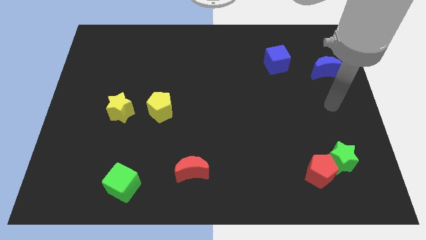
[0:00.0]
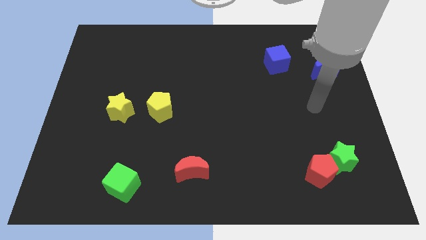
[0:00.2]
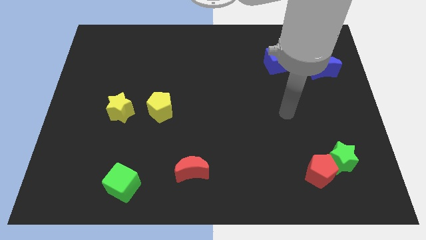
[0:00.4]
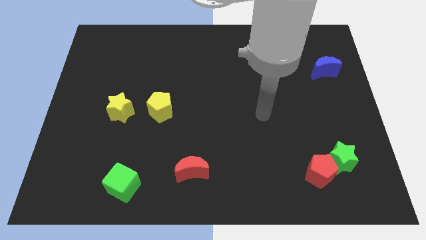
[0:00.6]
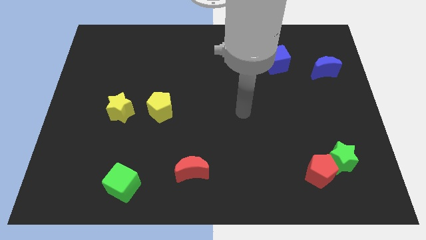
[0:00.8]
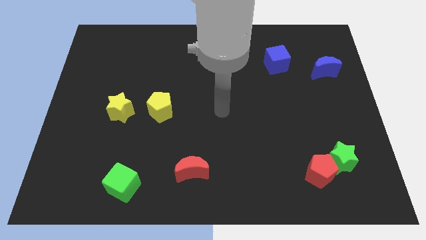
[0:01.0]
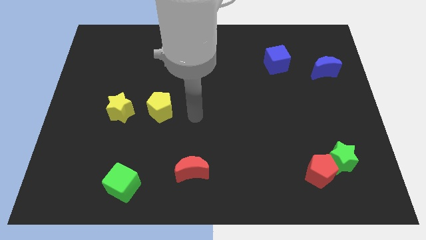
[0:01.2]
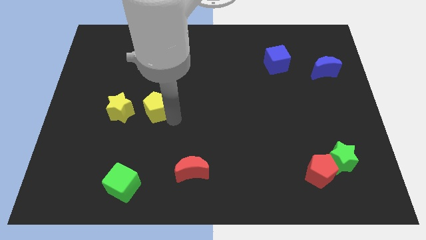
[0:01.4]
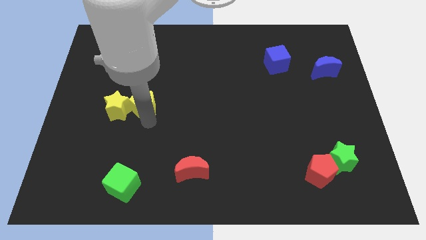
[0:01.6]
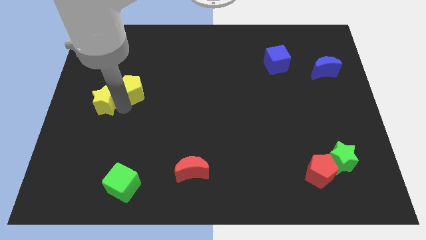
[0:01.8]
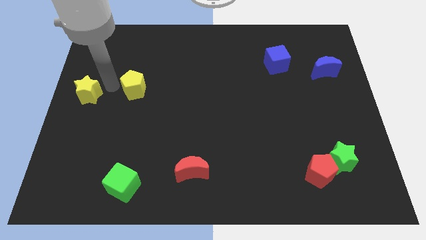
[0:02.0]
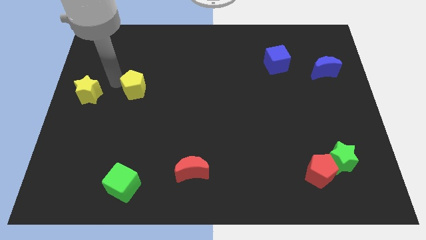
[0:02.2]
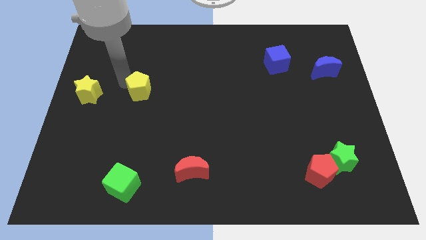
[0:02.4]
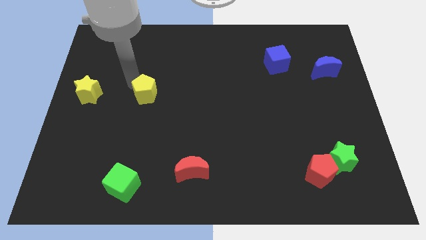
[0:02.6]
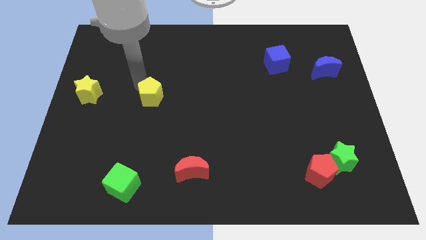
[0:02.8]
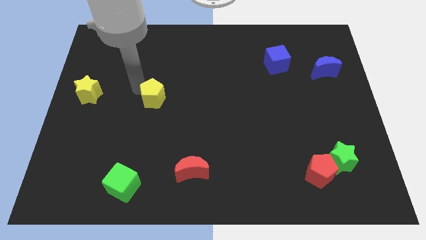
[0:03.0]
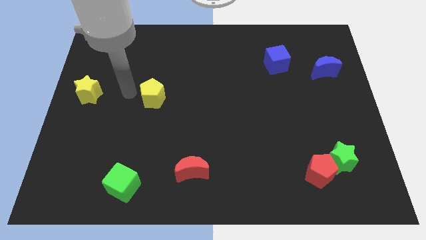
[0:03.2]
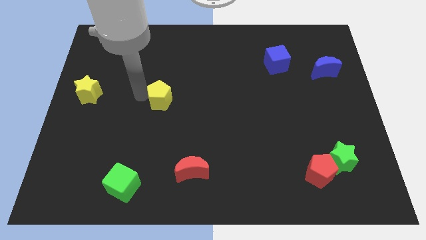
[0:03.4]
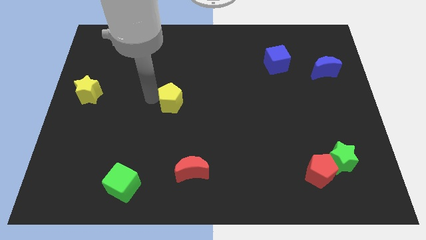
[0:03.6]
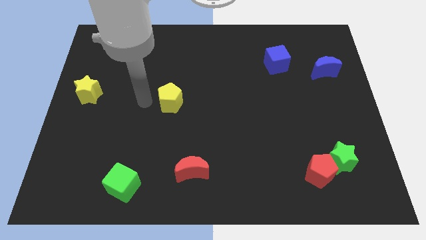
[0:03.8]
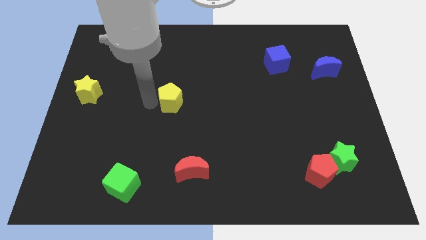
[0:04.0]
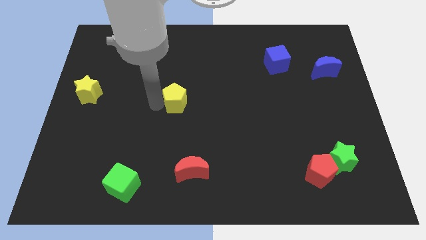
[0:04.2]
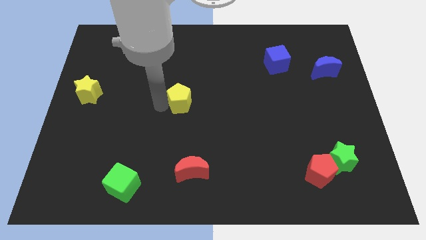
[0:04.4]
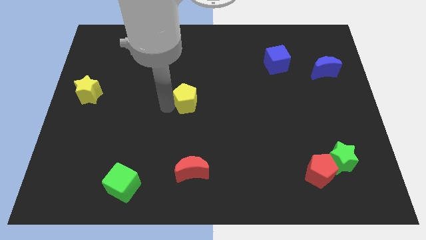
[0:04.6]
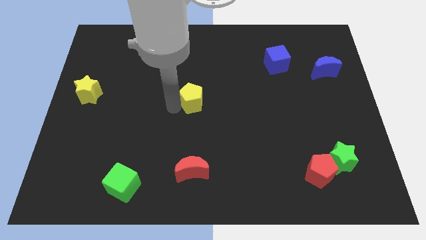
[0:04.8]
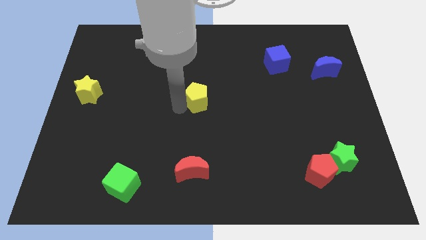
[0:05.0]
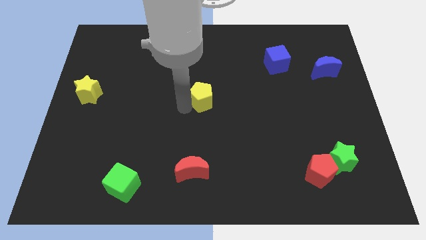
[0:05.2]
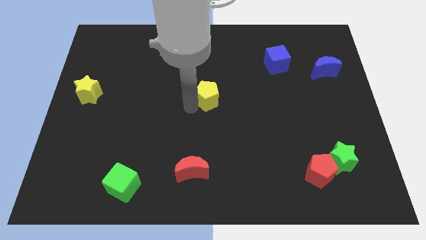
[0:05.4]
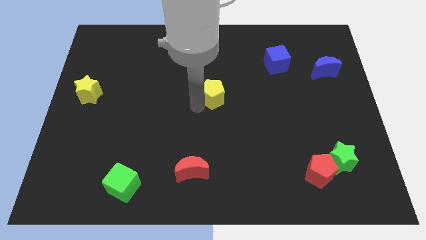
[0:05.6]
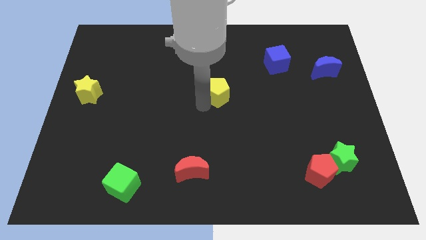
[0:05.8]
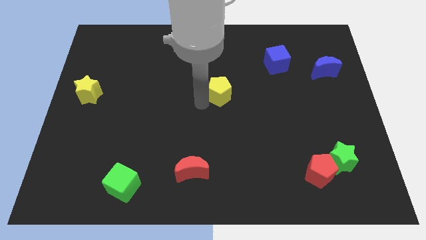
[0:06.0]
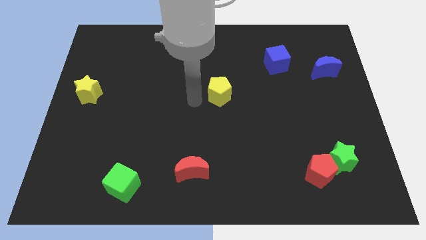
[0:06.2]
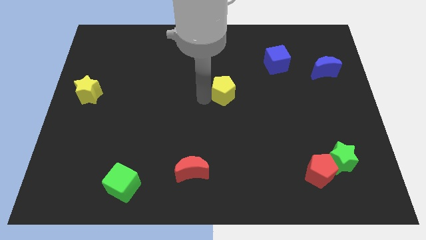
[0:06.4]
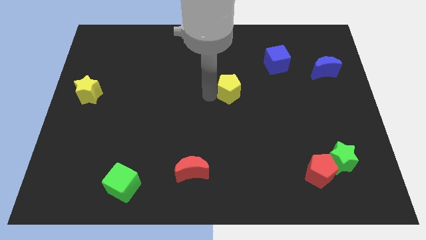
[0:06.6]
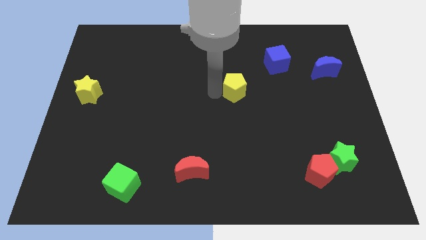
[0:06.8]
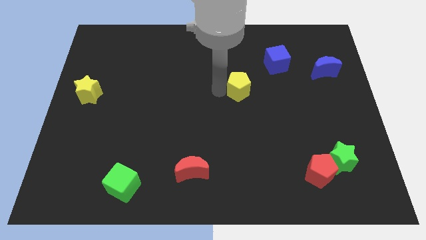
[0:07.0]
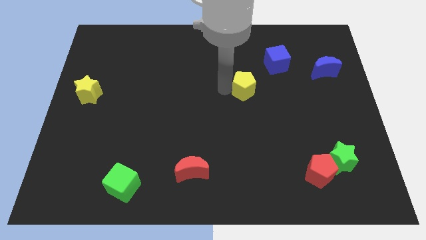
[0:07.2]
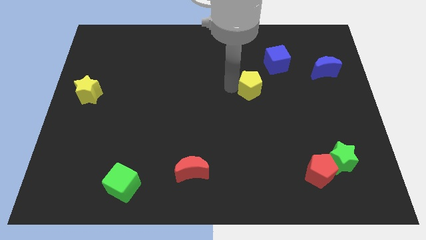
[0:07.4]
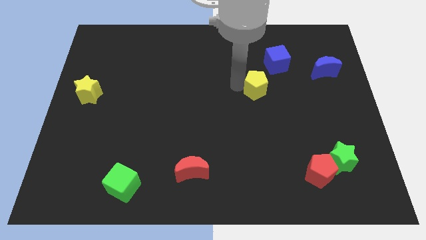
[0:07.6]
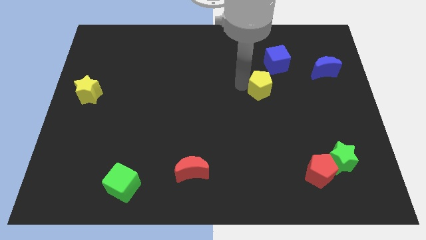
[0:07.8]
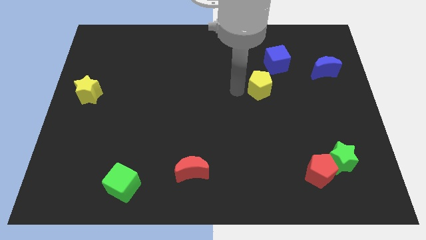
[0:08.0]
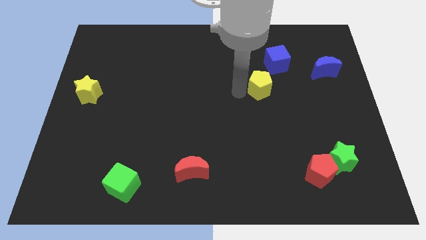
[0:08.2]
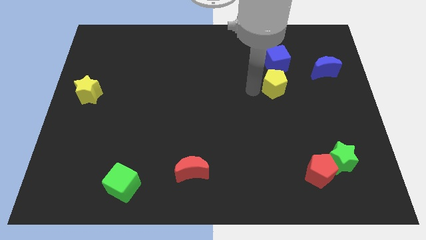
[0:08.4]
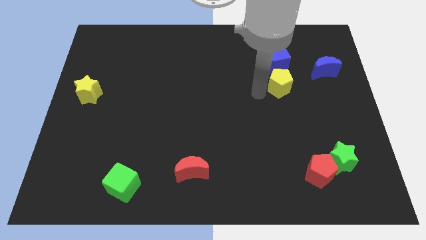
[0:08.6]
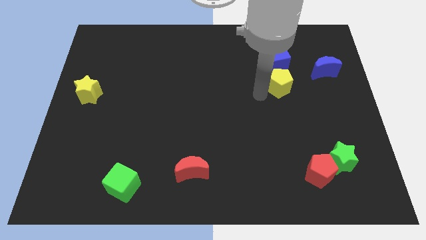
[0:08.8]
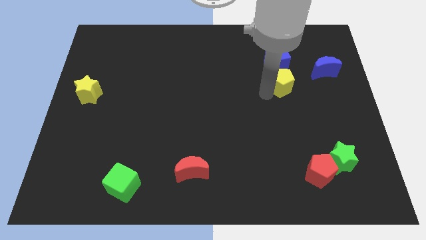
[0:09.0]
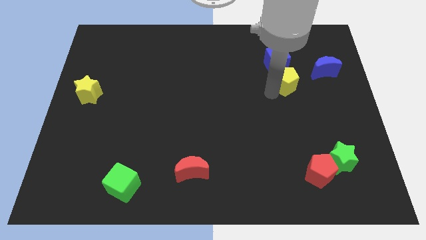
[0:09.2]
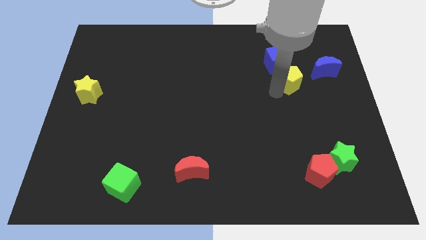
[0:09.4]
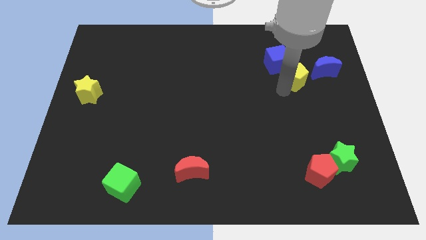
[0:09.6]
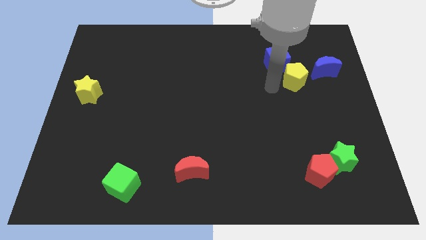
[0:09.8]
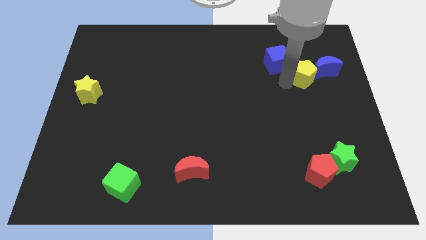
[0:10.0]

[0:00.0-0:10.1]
move the yellow pentagon to the blue moon

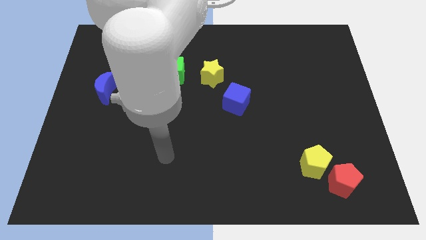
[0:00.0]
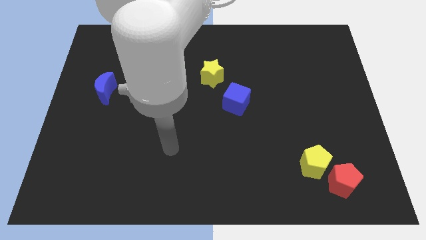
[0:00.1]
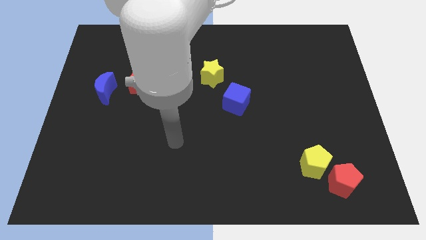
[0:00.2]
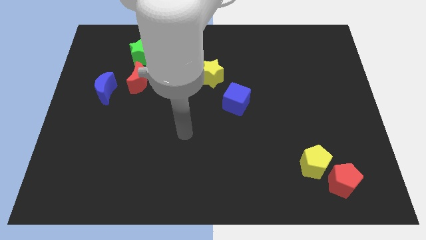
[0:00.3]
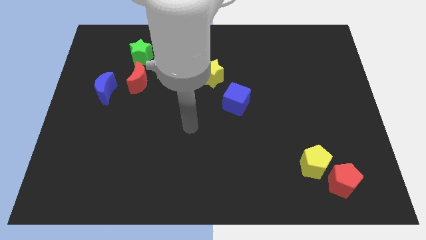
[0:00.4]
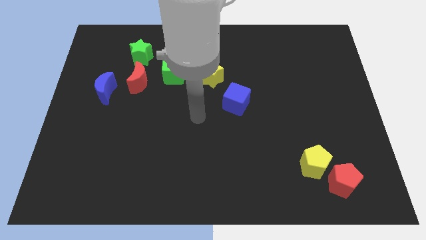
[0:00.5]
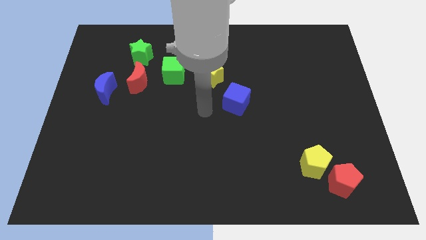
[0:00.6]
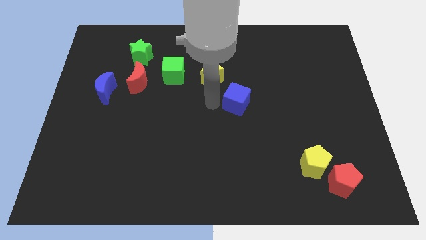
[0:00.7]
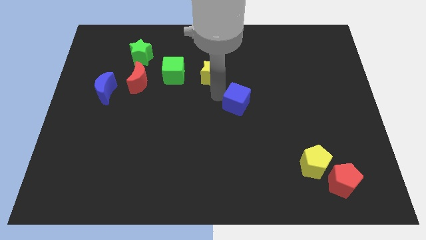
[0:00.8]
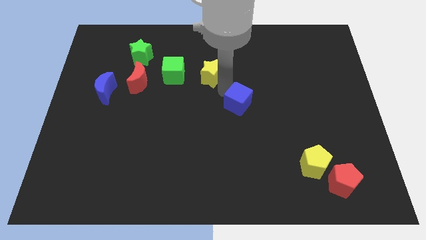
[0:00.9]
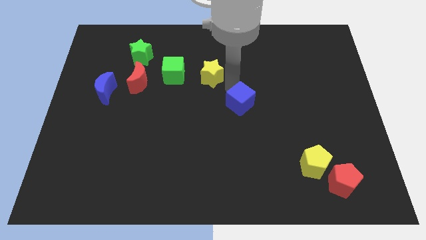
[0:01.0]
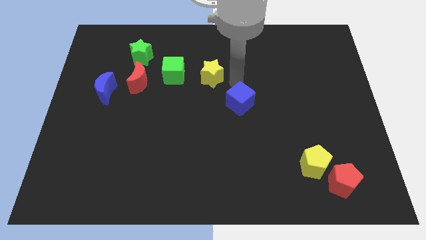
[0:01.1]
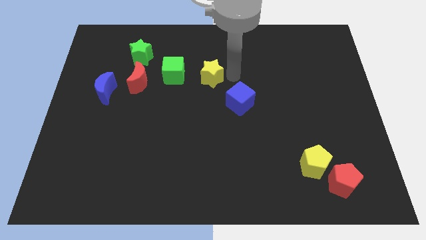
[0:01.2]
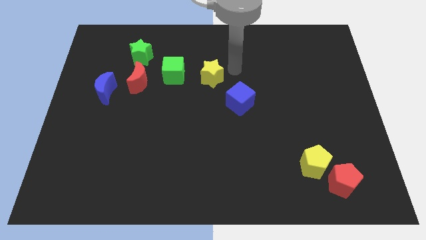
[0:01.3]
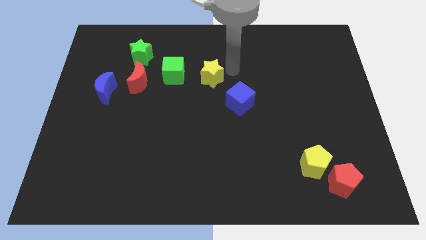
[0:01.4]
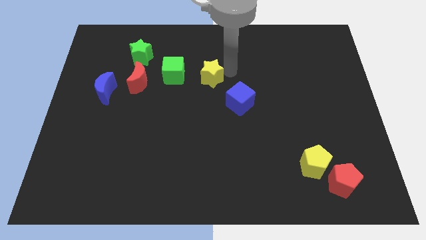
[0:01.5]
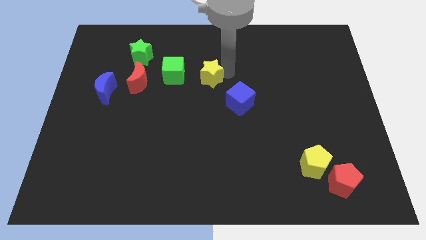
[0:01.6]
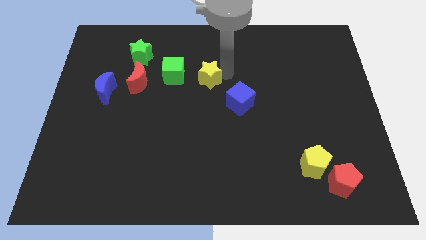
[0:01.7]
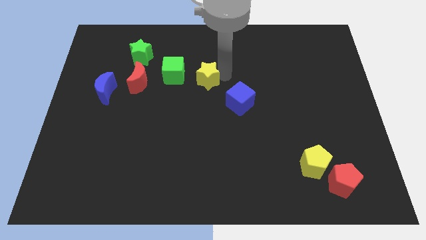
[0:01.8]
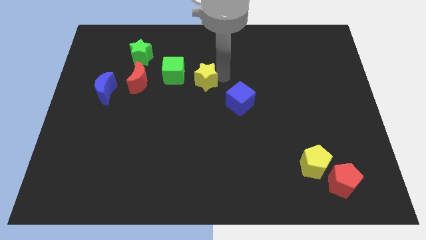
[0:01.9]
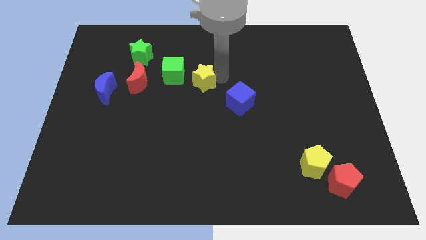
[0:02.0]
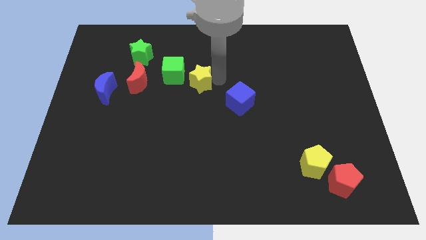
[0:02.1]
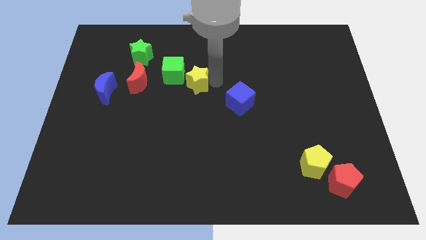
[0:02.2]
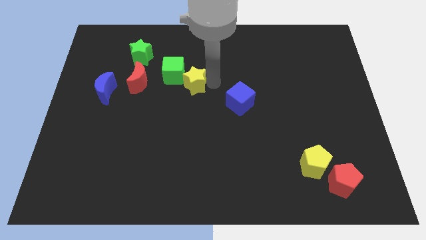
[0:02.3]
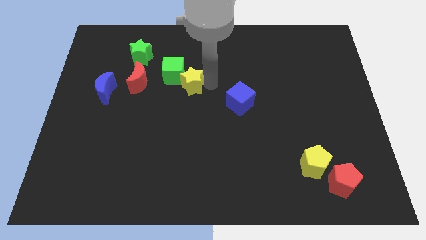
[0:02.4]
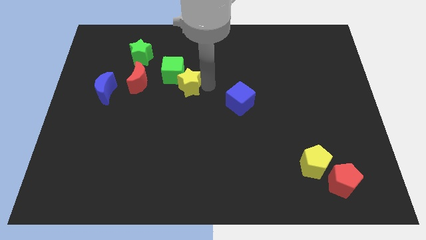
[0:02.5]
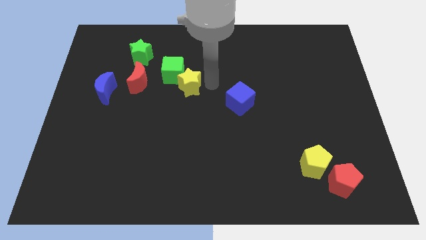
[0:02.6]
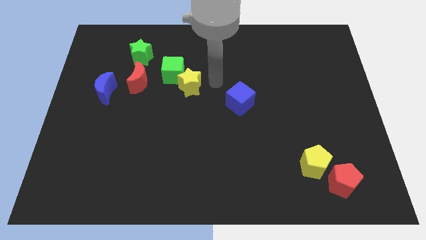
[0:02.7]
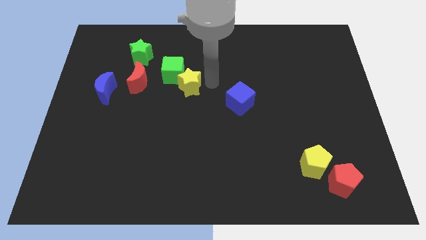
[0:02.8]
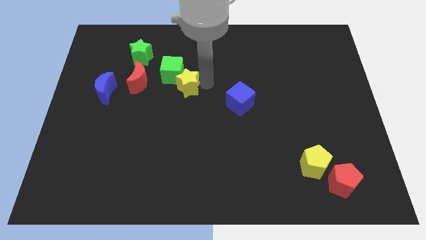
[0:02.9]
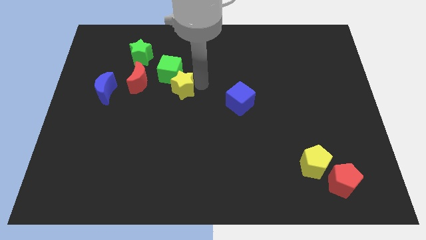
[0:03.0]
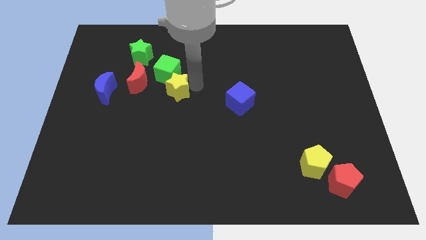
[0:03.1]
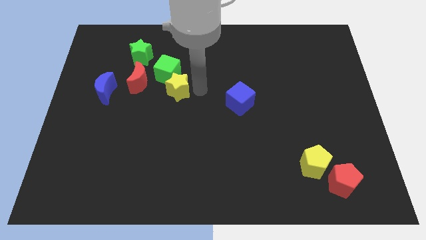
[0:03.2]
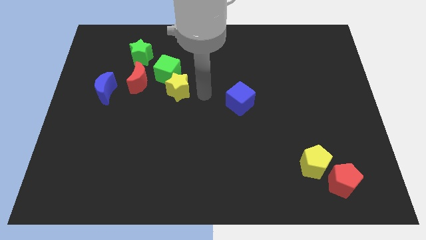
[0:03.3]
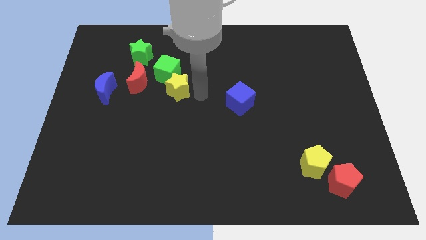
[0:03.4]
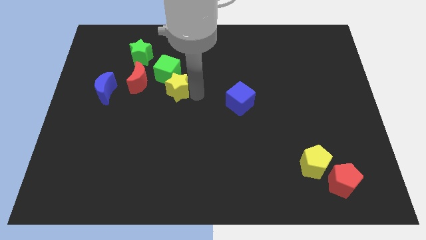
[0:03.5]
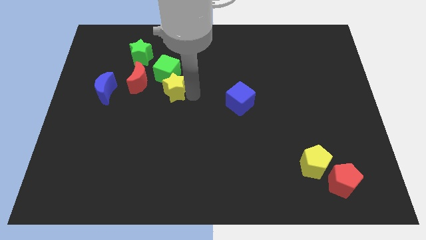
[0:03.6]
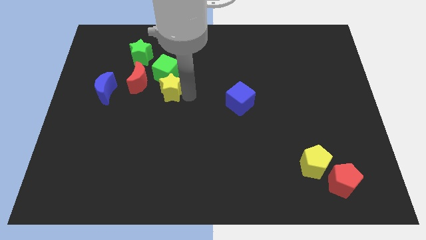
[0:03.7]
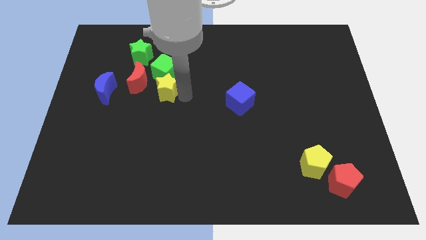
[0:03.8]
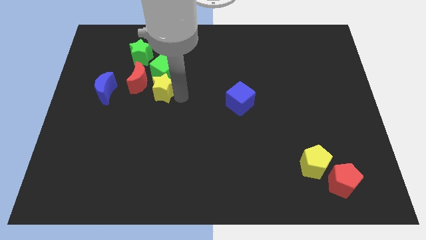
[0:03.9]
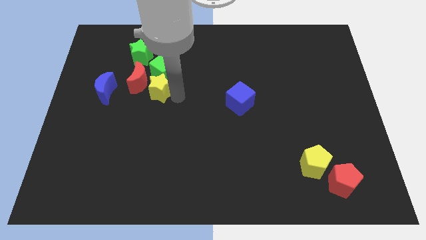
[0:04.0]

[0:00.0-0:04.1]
move the yellow star next to the red moon
